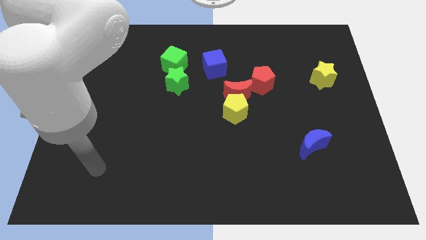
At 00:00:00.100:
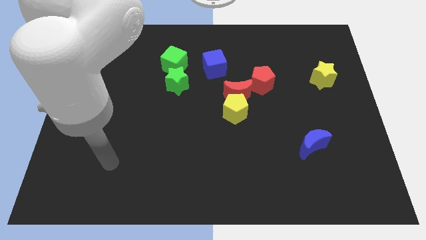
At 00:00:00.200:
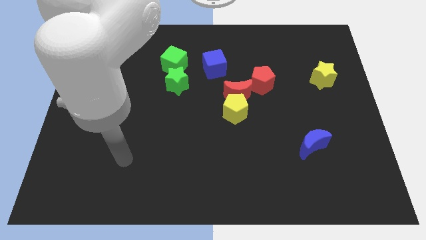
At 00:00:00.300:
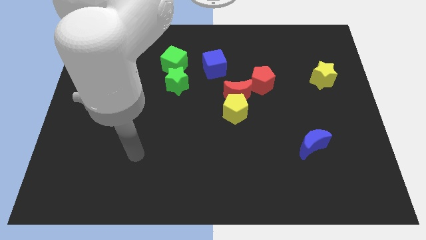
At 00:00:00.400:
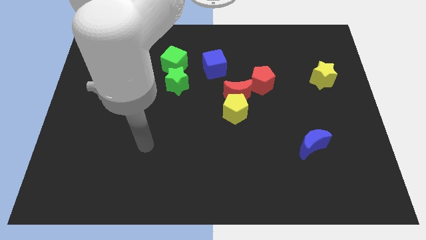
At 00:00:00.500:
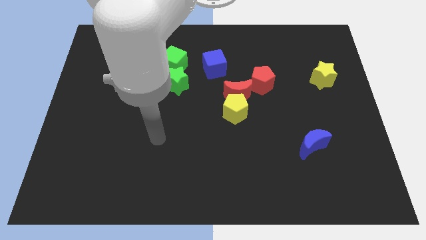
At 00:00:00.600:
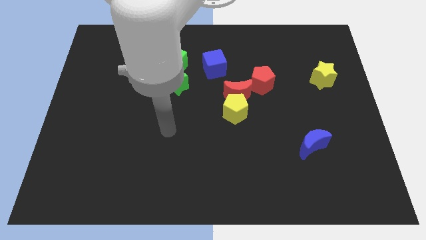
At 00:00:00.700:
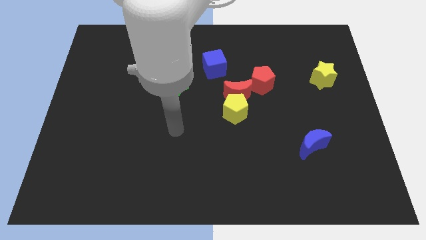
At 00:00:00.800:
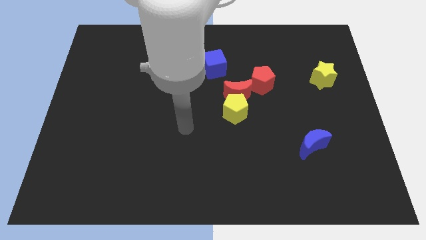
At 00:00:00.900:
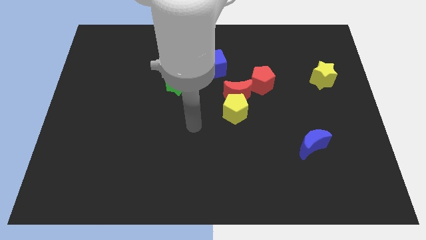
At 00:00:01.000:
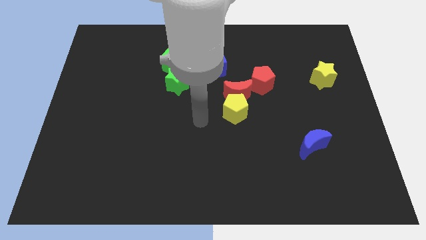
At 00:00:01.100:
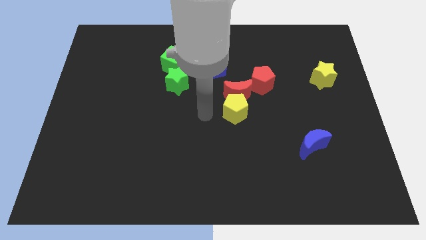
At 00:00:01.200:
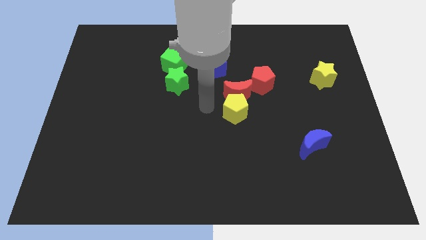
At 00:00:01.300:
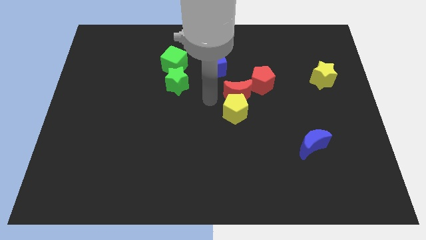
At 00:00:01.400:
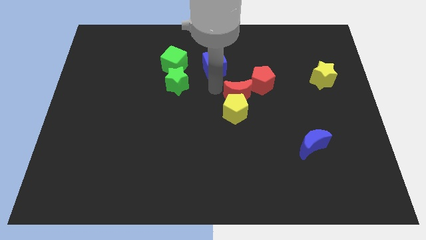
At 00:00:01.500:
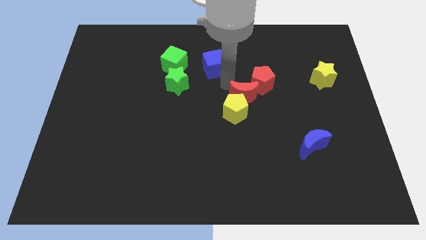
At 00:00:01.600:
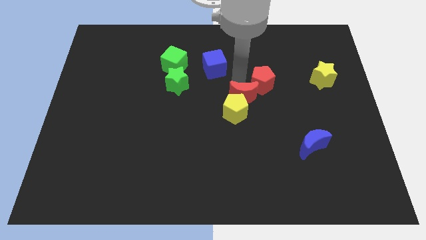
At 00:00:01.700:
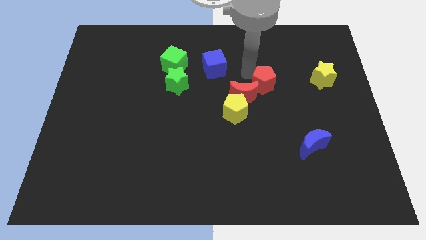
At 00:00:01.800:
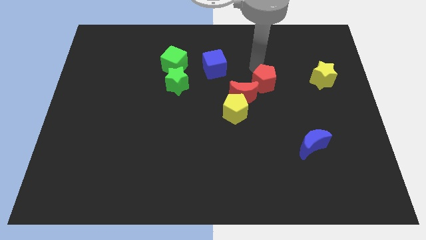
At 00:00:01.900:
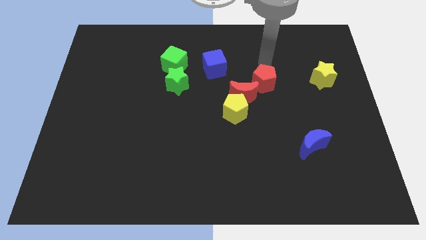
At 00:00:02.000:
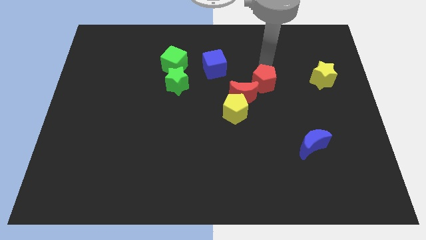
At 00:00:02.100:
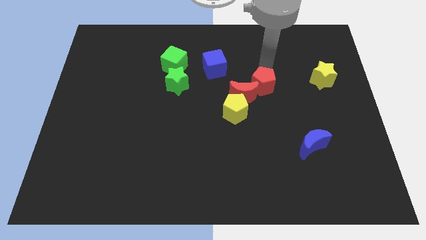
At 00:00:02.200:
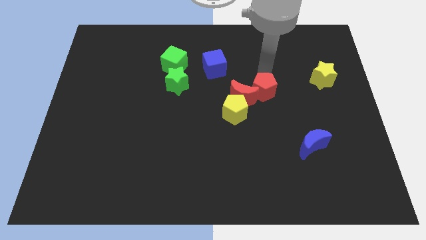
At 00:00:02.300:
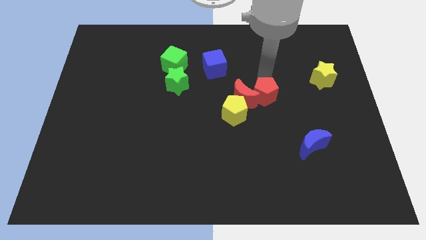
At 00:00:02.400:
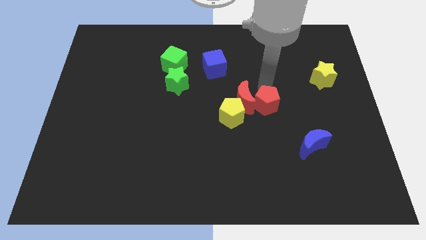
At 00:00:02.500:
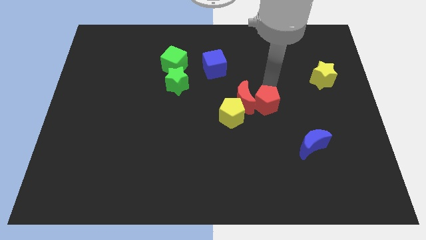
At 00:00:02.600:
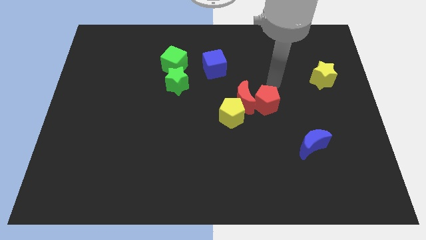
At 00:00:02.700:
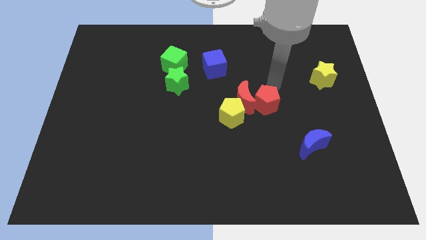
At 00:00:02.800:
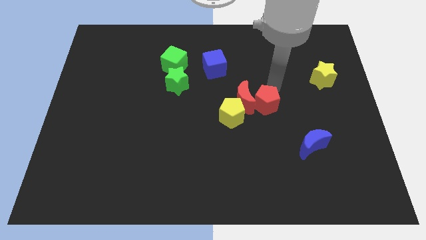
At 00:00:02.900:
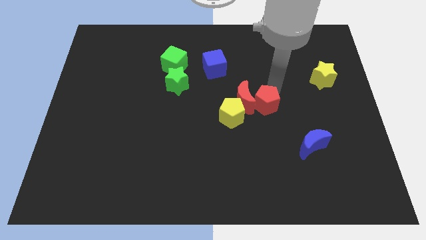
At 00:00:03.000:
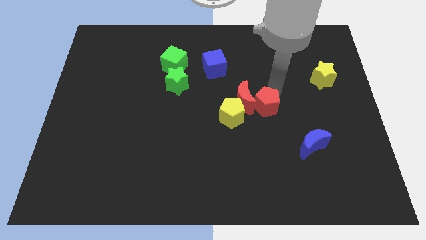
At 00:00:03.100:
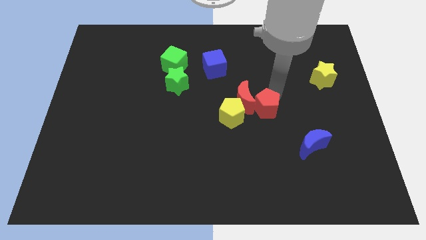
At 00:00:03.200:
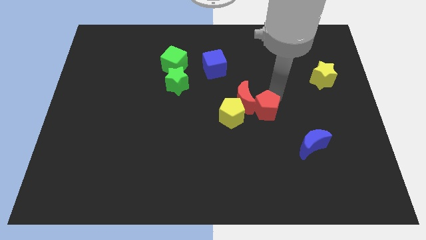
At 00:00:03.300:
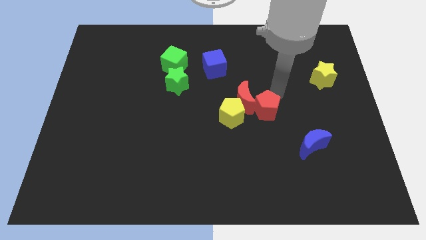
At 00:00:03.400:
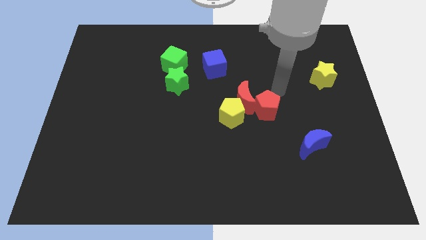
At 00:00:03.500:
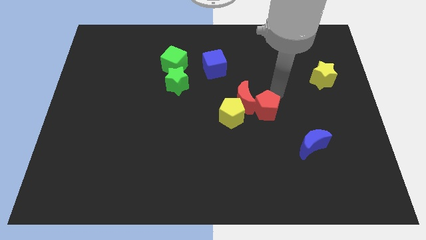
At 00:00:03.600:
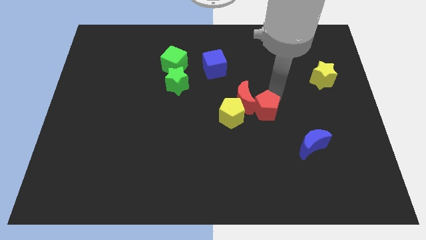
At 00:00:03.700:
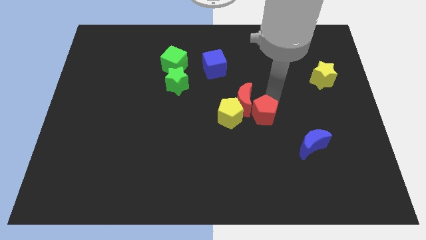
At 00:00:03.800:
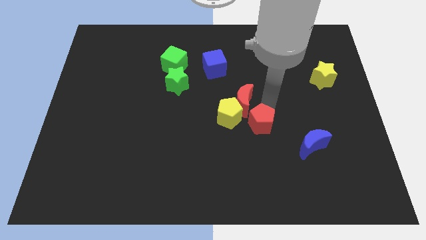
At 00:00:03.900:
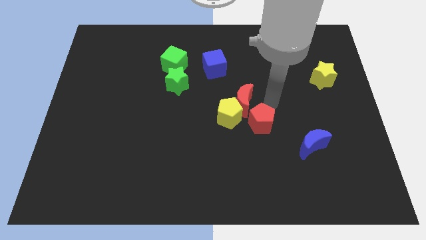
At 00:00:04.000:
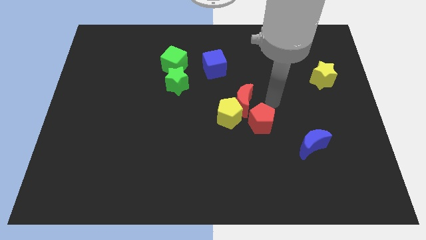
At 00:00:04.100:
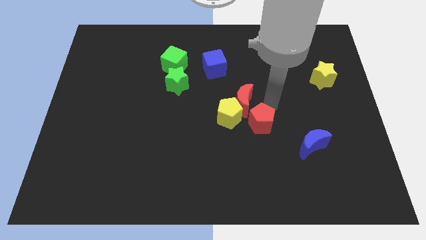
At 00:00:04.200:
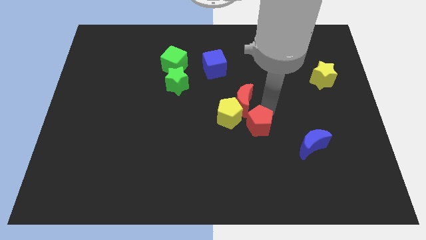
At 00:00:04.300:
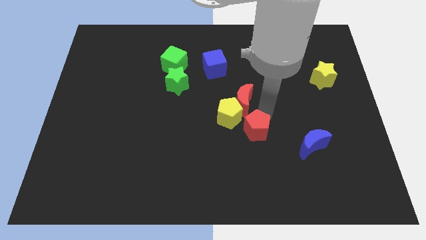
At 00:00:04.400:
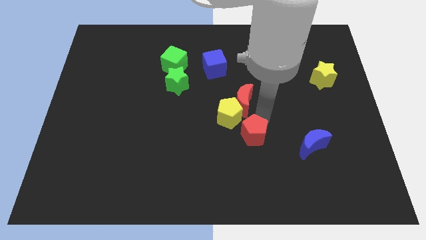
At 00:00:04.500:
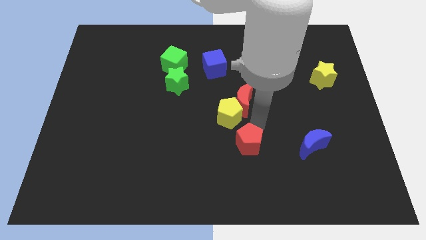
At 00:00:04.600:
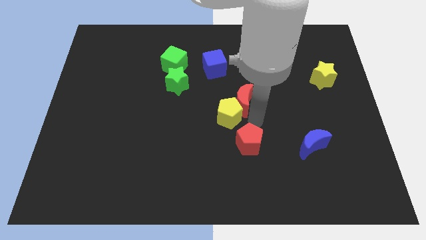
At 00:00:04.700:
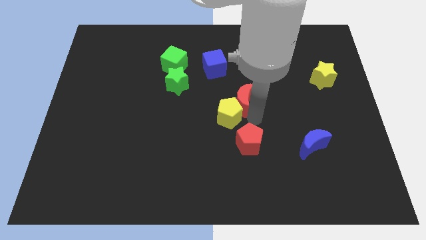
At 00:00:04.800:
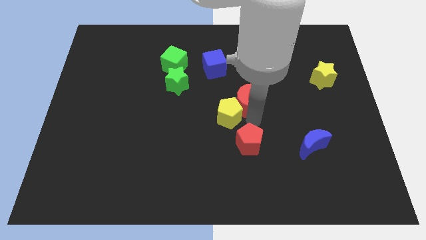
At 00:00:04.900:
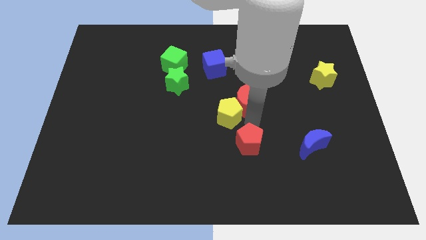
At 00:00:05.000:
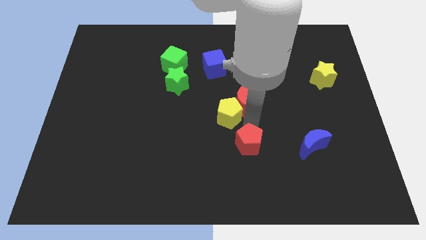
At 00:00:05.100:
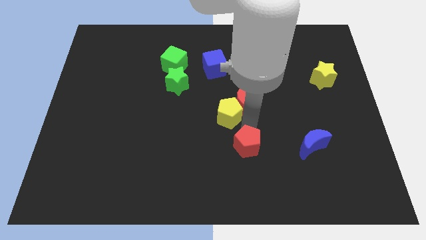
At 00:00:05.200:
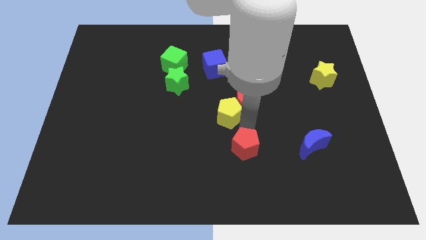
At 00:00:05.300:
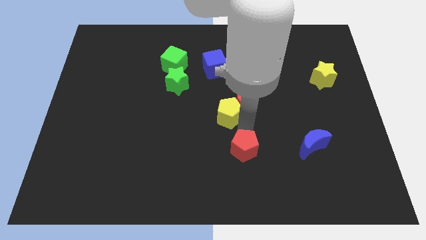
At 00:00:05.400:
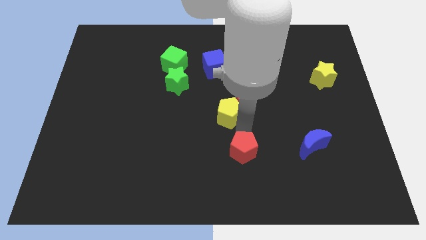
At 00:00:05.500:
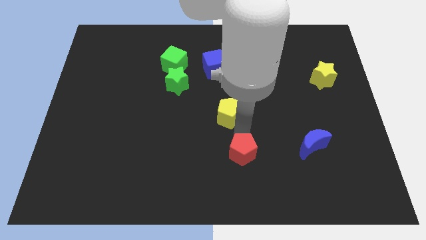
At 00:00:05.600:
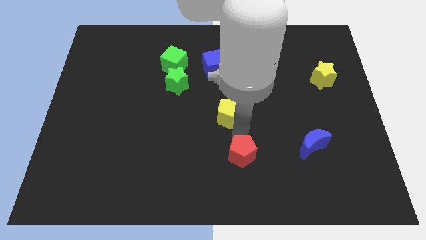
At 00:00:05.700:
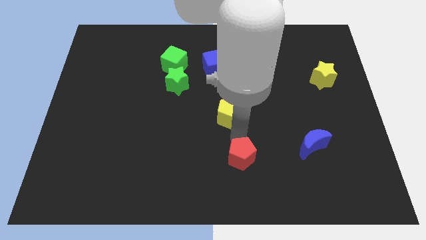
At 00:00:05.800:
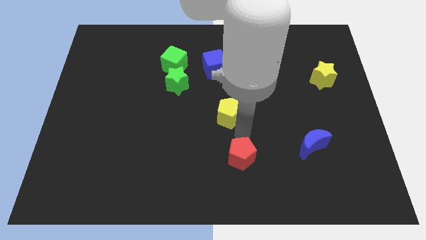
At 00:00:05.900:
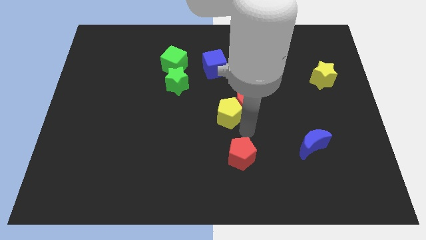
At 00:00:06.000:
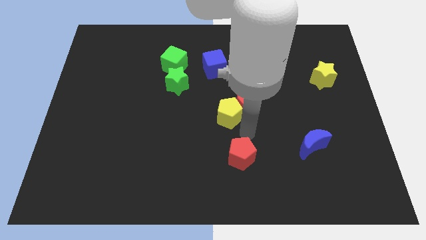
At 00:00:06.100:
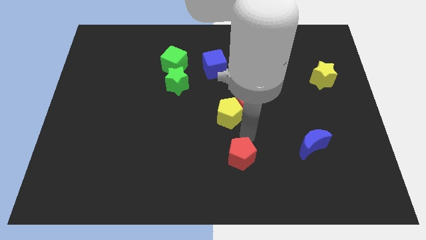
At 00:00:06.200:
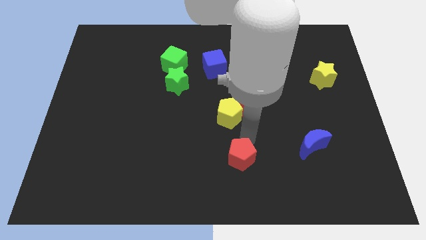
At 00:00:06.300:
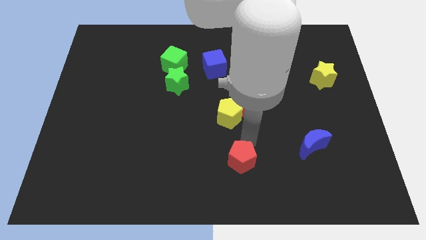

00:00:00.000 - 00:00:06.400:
put the red pentagon to the bottom

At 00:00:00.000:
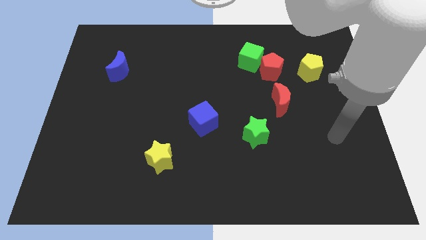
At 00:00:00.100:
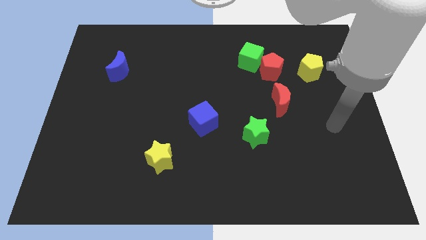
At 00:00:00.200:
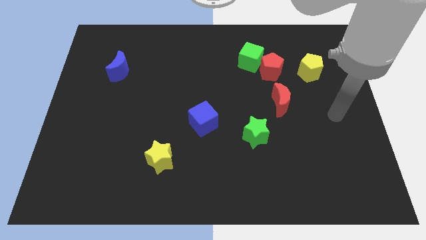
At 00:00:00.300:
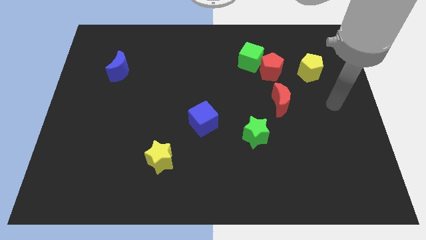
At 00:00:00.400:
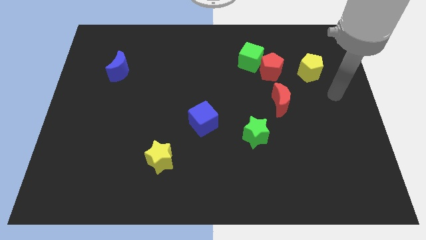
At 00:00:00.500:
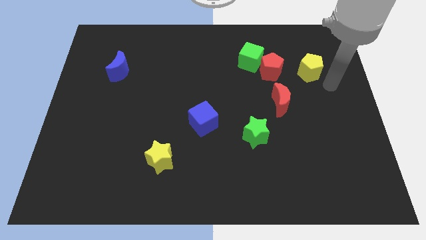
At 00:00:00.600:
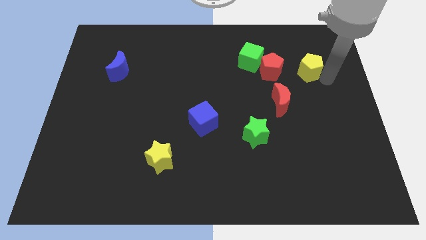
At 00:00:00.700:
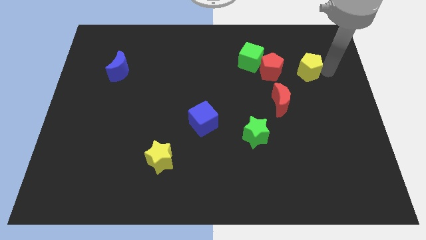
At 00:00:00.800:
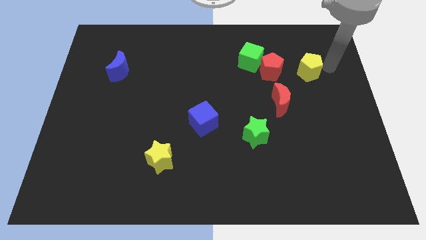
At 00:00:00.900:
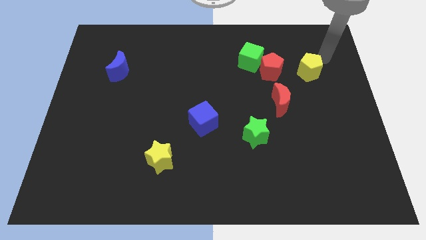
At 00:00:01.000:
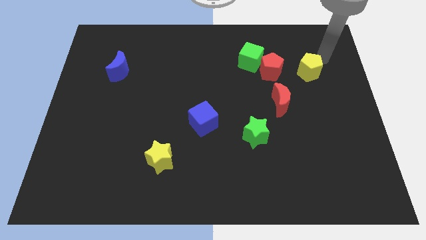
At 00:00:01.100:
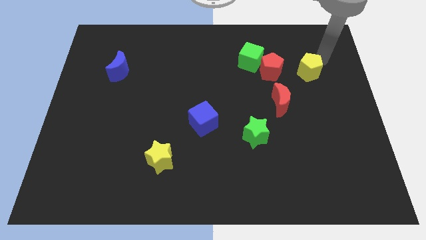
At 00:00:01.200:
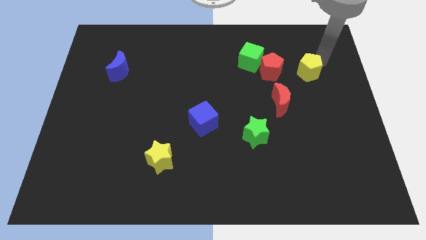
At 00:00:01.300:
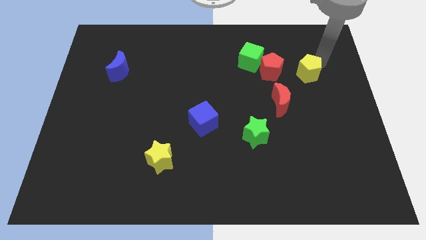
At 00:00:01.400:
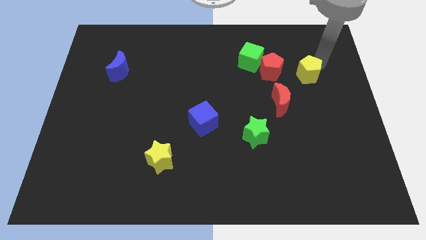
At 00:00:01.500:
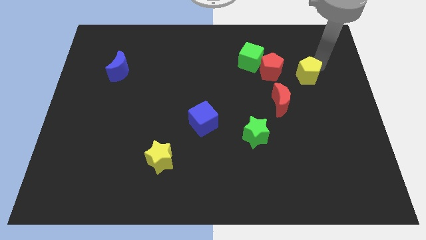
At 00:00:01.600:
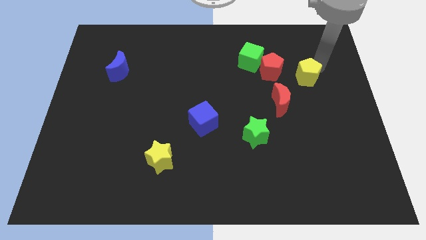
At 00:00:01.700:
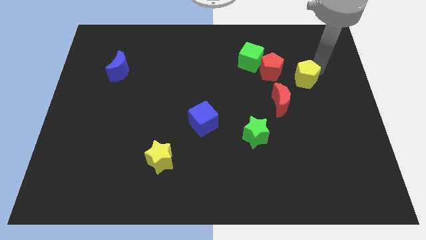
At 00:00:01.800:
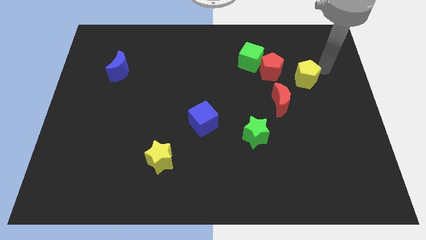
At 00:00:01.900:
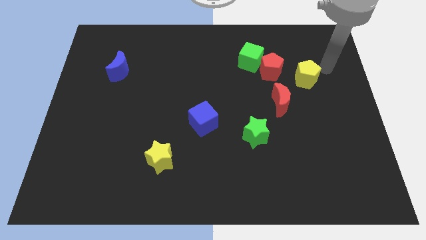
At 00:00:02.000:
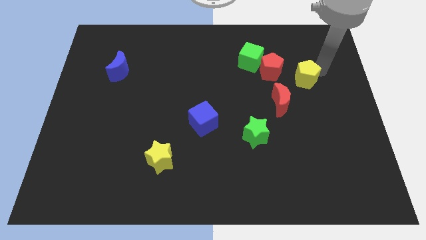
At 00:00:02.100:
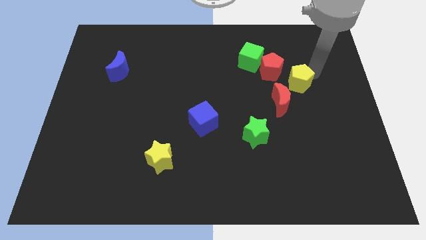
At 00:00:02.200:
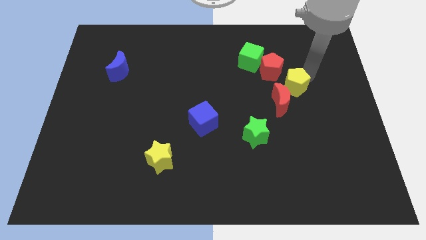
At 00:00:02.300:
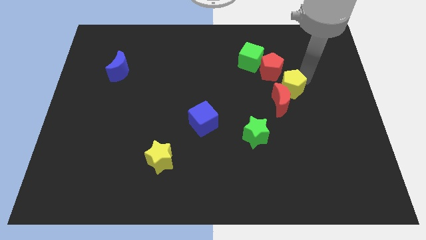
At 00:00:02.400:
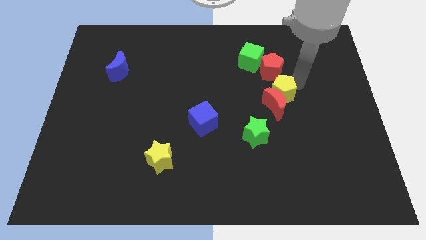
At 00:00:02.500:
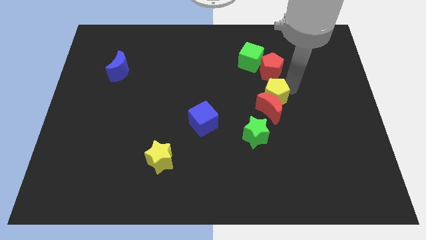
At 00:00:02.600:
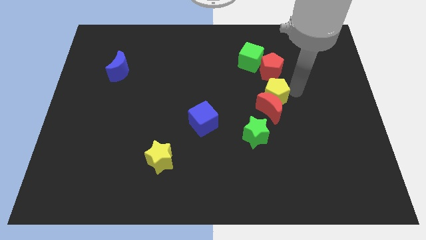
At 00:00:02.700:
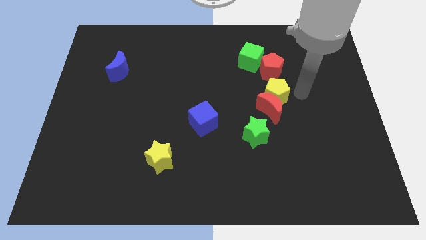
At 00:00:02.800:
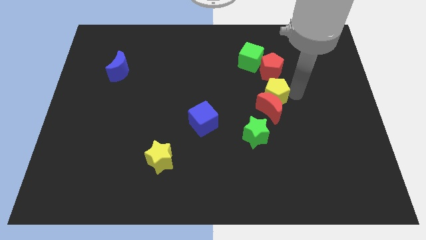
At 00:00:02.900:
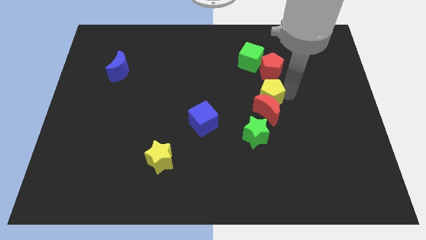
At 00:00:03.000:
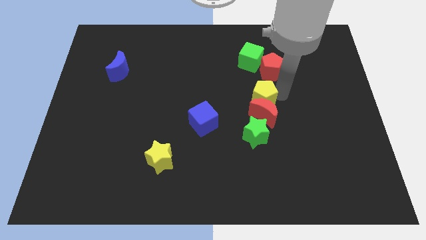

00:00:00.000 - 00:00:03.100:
put the yellow pentagon to the middle of the board
